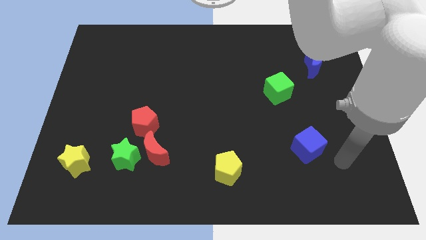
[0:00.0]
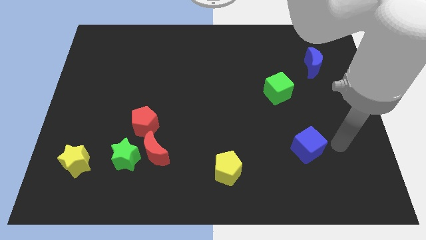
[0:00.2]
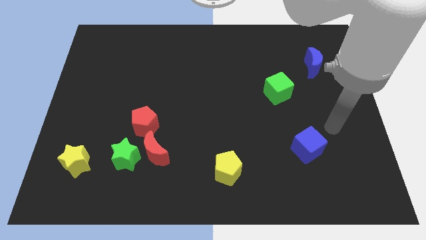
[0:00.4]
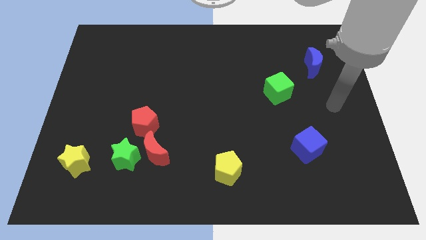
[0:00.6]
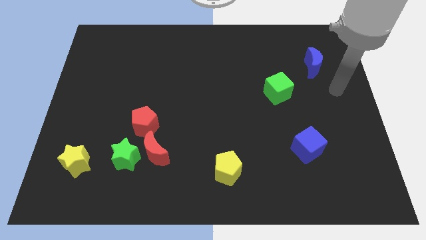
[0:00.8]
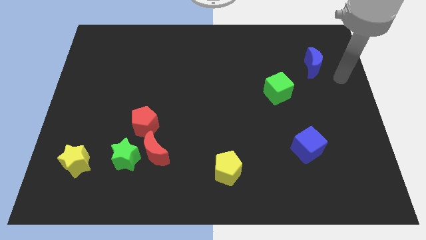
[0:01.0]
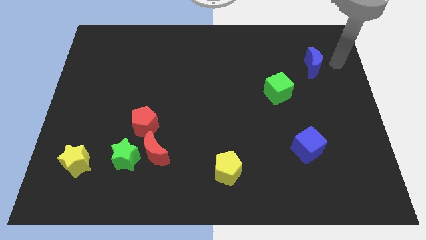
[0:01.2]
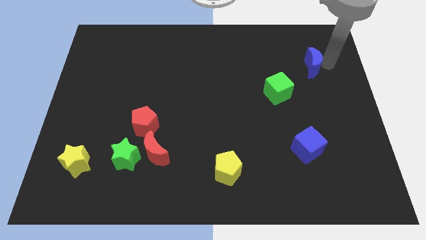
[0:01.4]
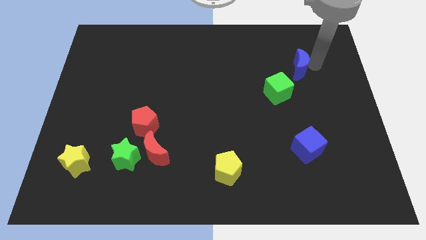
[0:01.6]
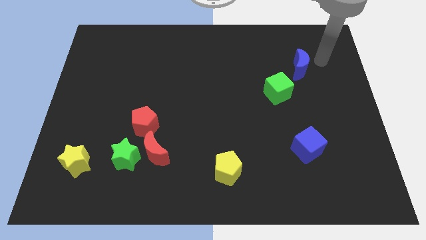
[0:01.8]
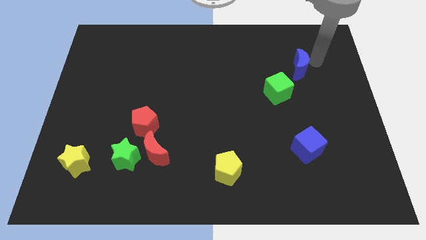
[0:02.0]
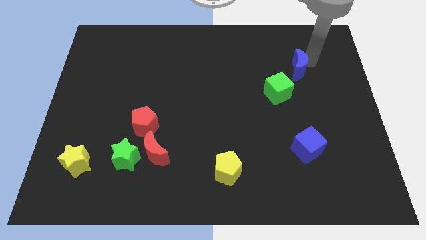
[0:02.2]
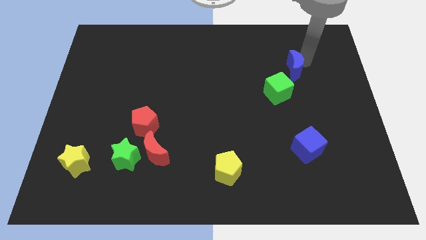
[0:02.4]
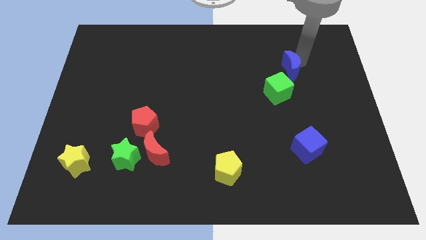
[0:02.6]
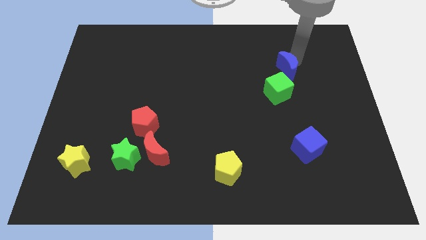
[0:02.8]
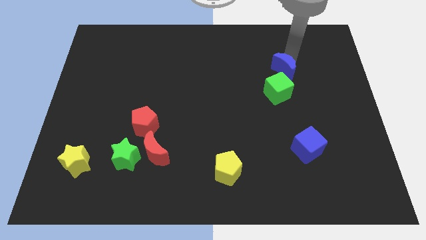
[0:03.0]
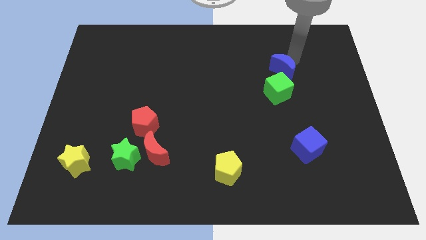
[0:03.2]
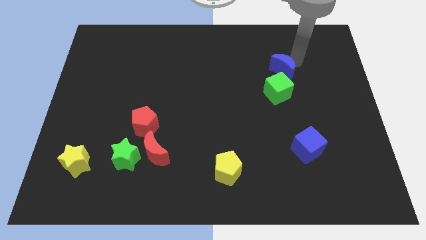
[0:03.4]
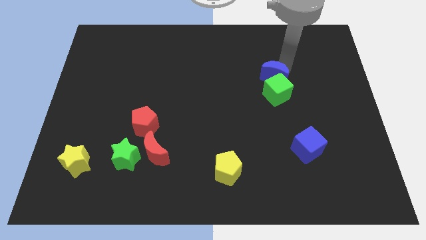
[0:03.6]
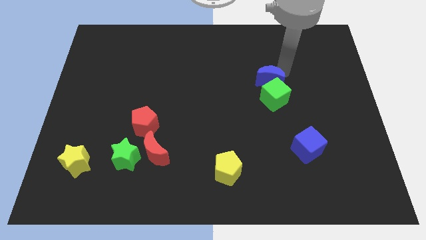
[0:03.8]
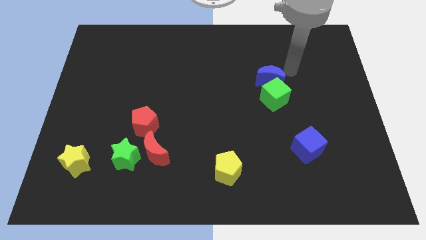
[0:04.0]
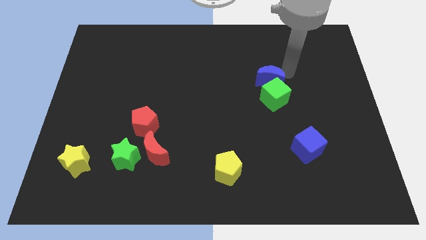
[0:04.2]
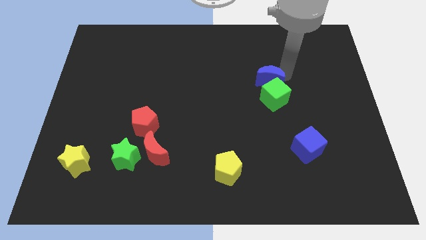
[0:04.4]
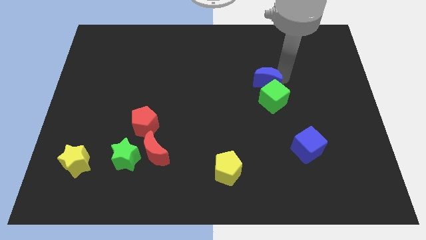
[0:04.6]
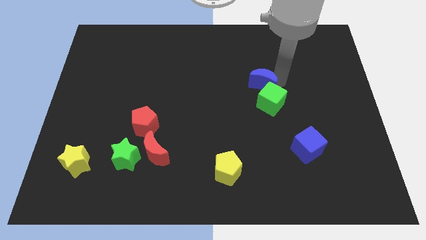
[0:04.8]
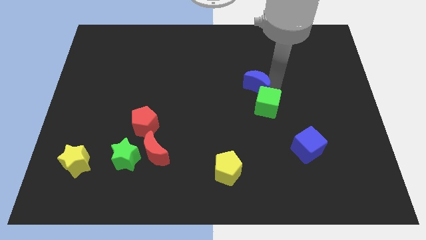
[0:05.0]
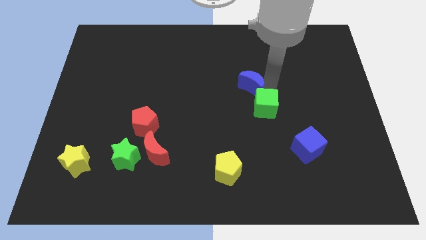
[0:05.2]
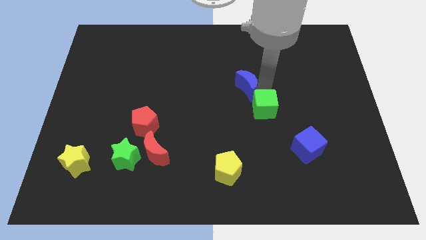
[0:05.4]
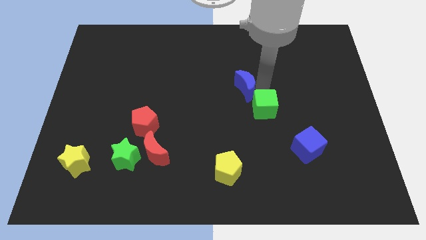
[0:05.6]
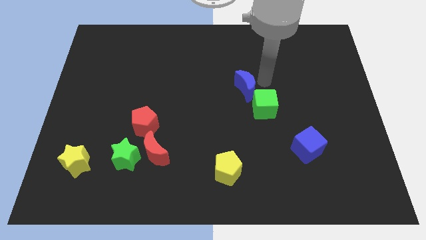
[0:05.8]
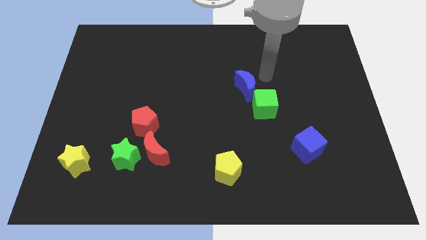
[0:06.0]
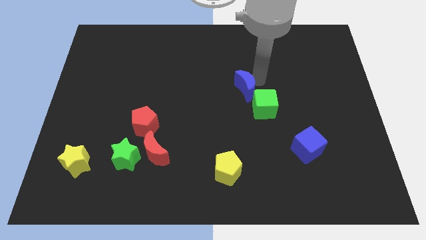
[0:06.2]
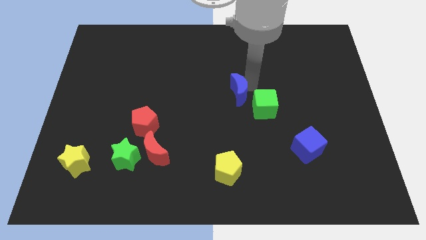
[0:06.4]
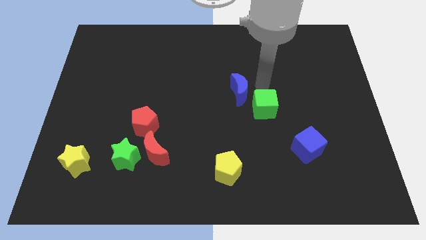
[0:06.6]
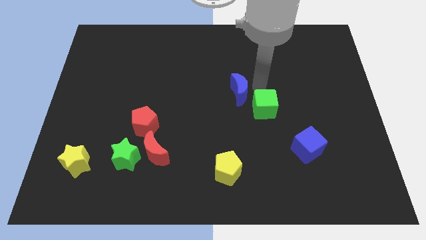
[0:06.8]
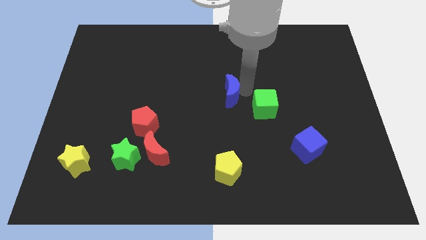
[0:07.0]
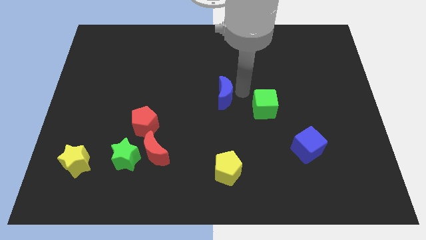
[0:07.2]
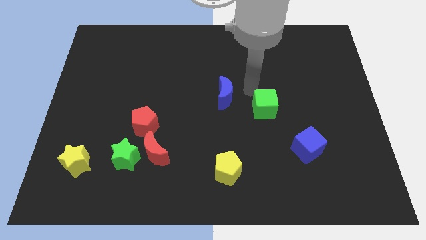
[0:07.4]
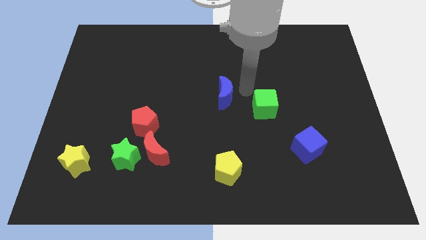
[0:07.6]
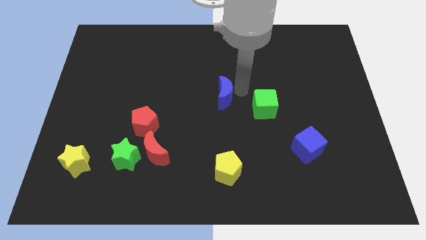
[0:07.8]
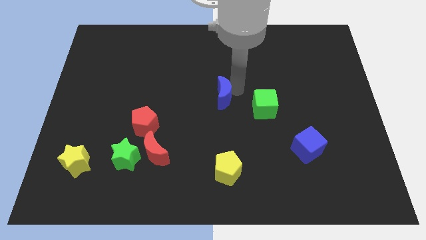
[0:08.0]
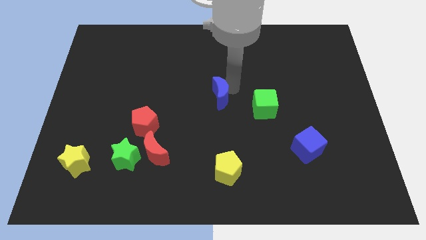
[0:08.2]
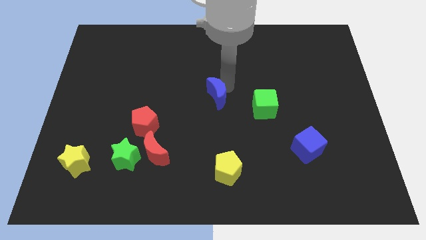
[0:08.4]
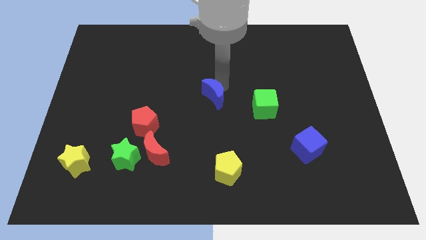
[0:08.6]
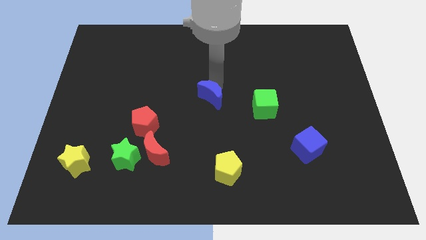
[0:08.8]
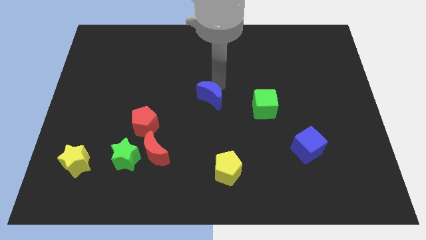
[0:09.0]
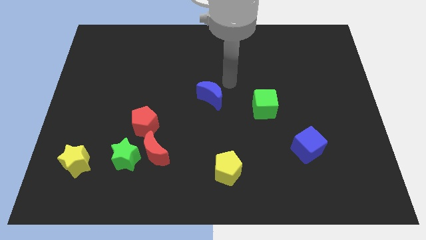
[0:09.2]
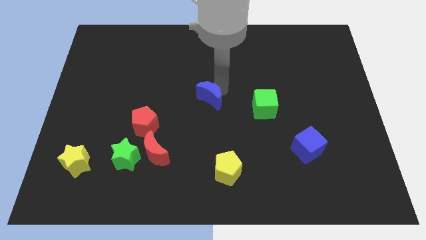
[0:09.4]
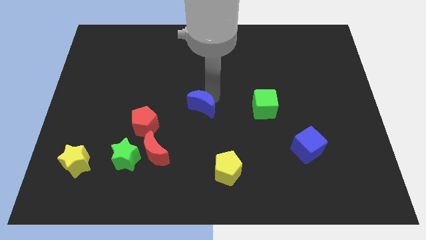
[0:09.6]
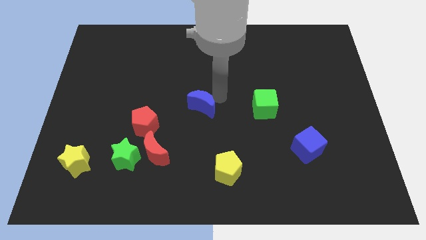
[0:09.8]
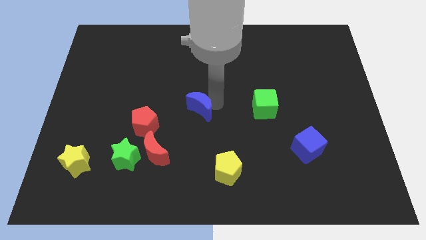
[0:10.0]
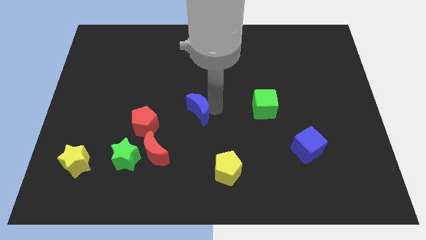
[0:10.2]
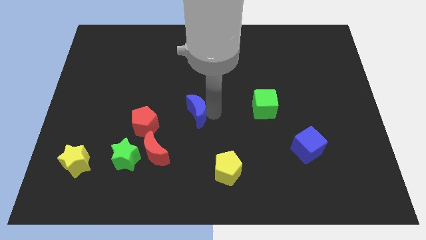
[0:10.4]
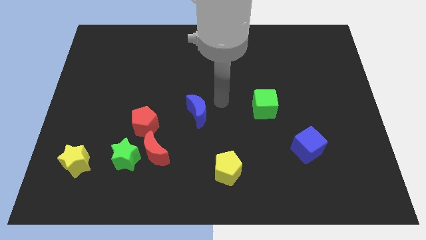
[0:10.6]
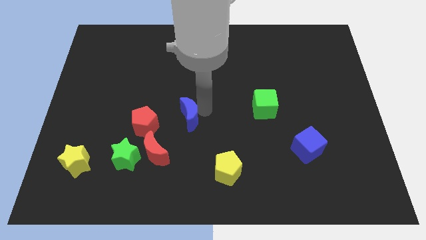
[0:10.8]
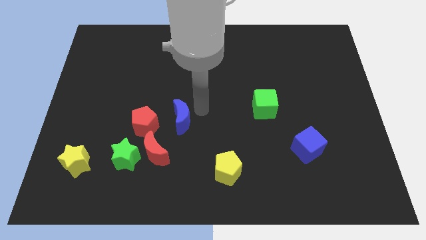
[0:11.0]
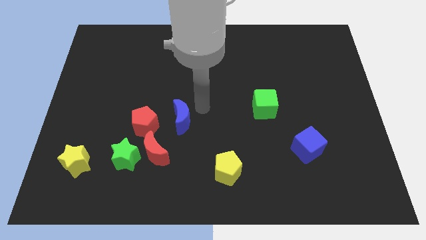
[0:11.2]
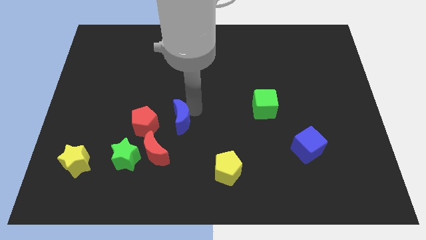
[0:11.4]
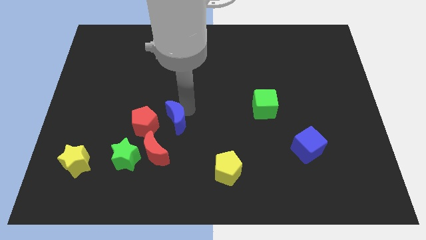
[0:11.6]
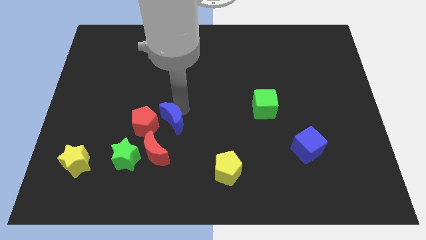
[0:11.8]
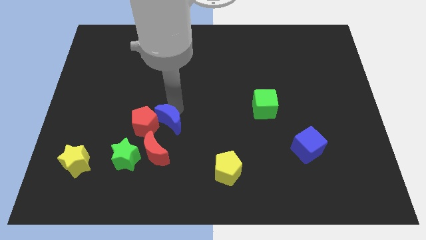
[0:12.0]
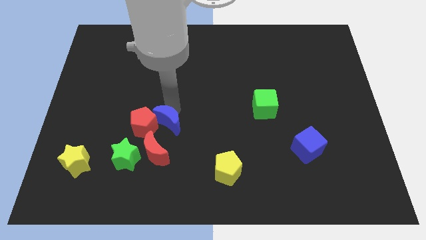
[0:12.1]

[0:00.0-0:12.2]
slide the blue moon to the top right of the green star

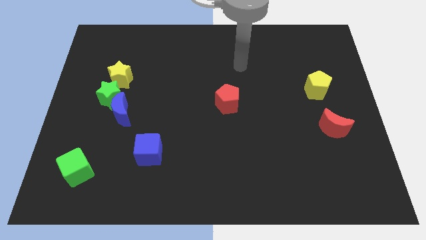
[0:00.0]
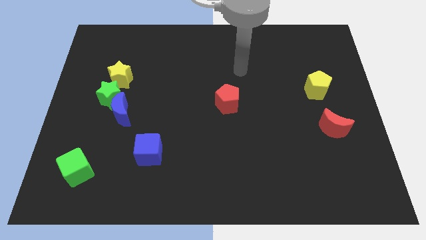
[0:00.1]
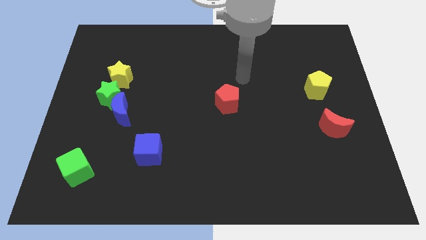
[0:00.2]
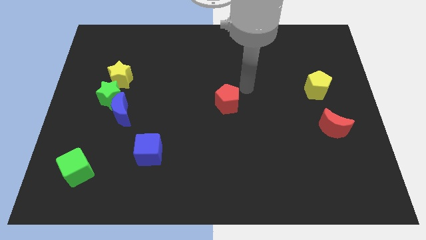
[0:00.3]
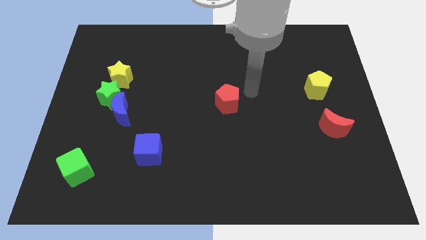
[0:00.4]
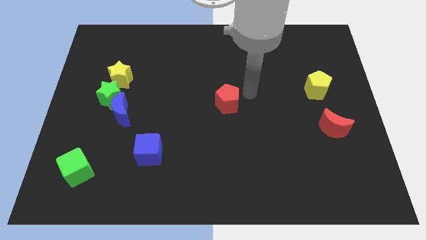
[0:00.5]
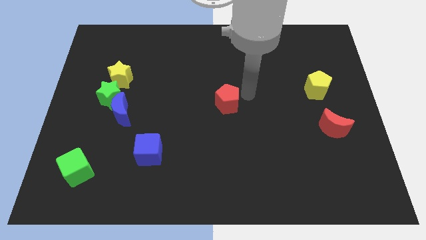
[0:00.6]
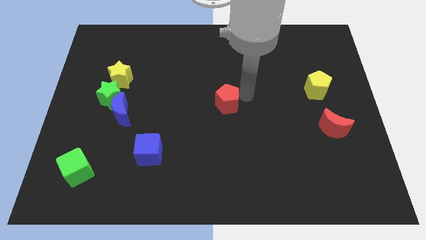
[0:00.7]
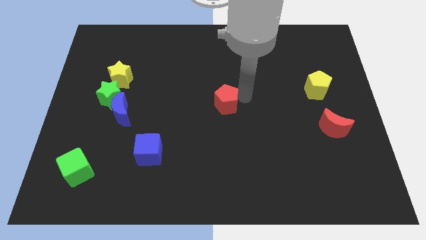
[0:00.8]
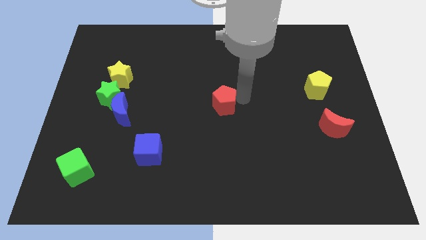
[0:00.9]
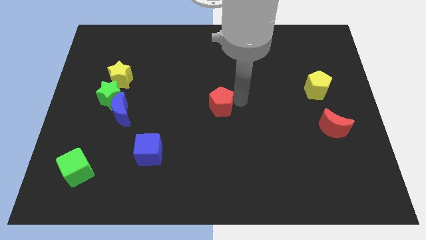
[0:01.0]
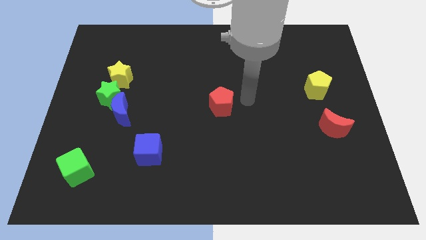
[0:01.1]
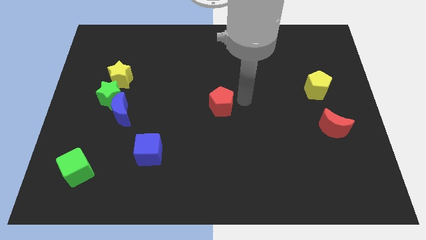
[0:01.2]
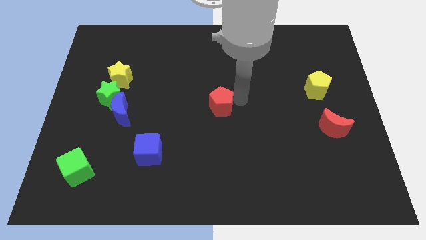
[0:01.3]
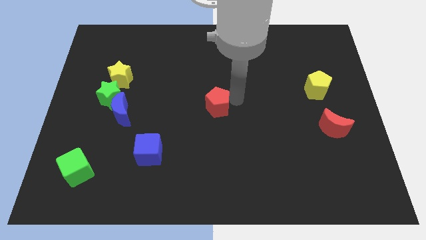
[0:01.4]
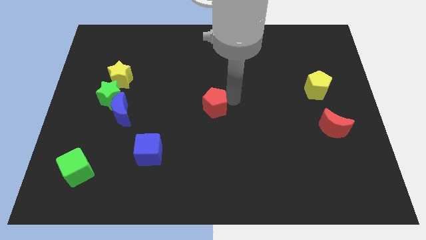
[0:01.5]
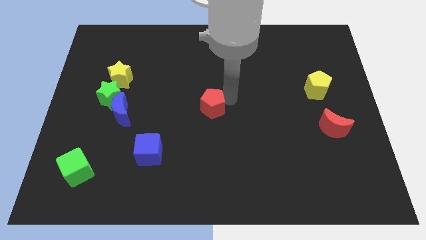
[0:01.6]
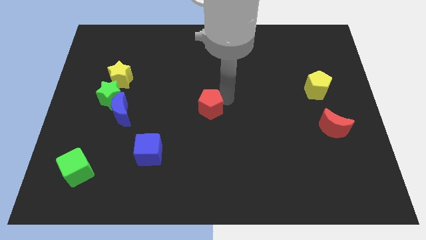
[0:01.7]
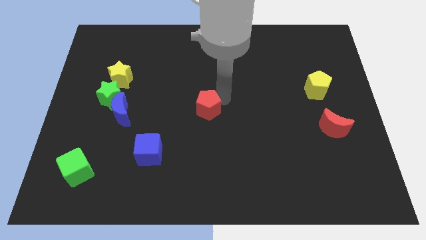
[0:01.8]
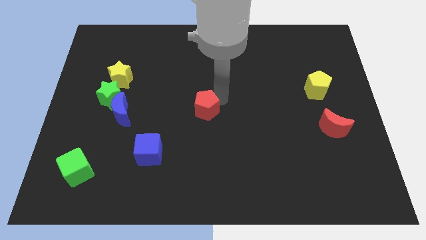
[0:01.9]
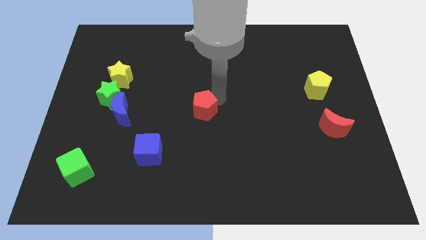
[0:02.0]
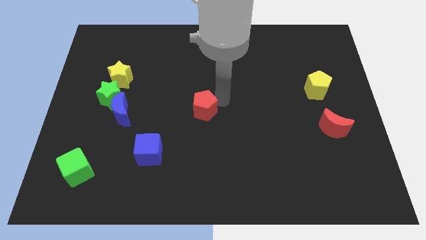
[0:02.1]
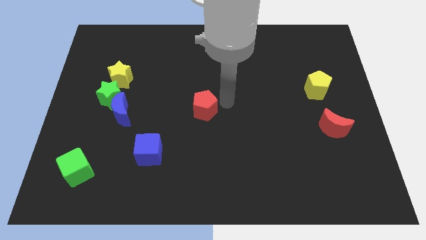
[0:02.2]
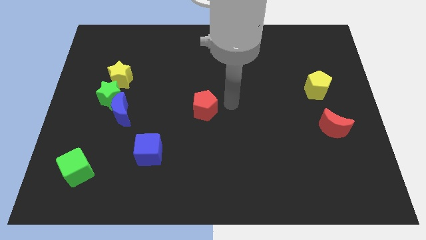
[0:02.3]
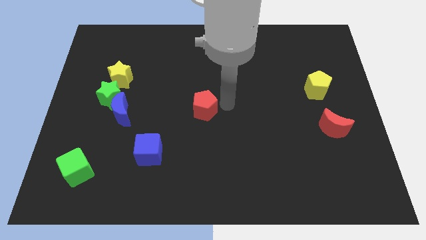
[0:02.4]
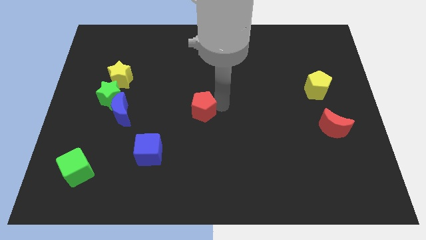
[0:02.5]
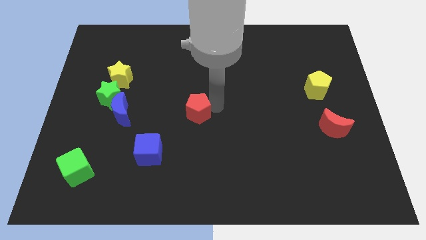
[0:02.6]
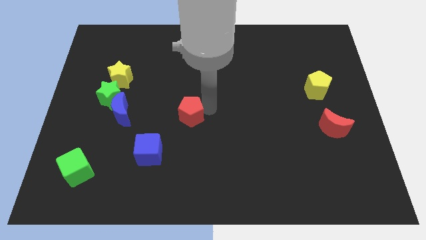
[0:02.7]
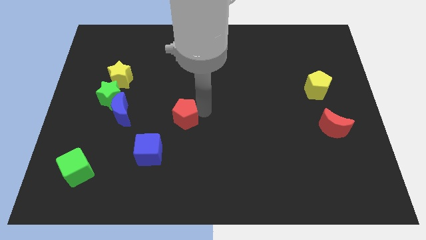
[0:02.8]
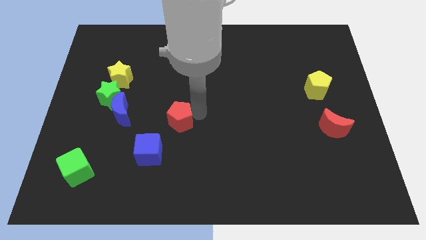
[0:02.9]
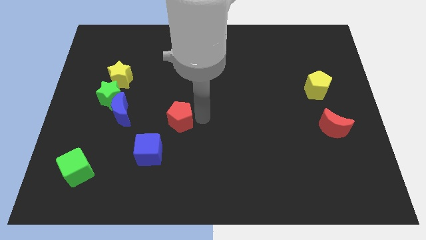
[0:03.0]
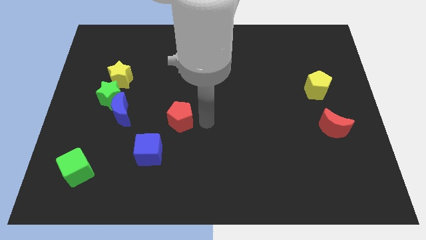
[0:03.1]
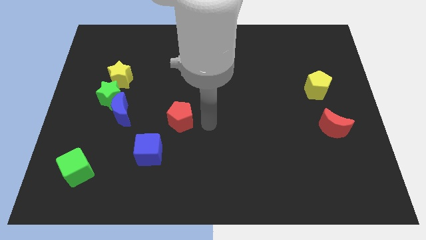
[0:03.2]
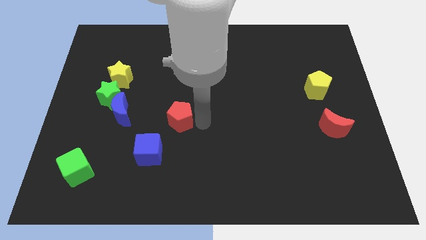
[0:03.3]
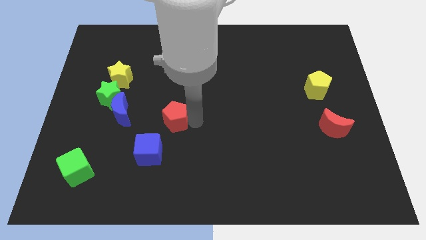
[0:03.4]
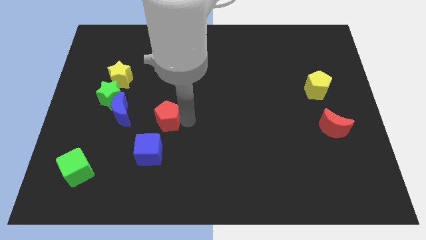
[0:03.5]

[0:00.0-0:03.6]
push the red pentagon to the top side of the blue cube
